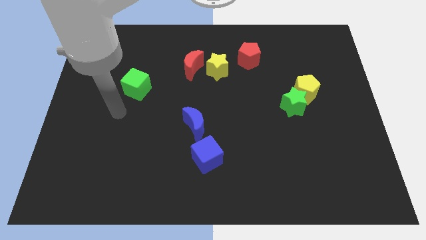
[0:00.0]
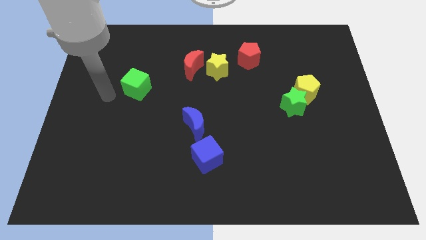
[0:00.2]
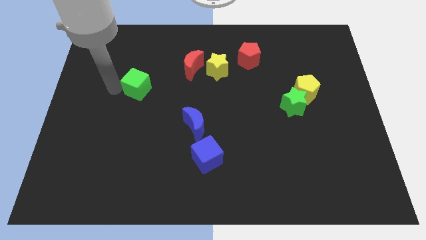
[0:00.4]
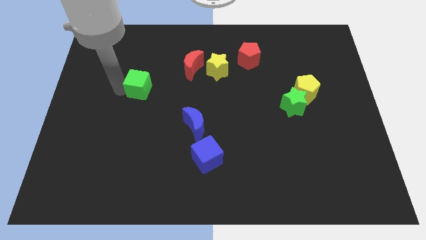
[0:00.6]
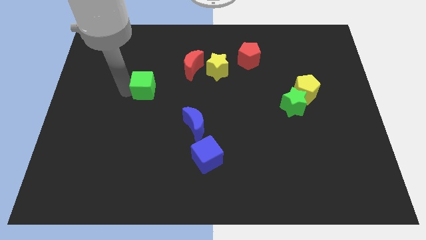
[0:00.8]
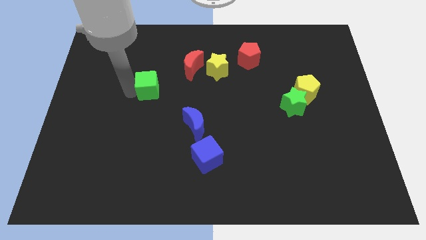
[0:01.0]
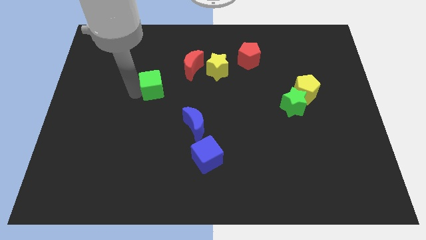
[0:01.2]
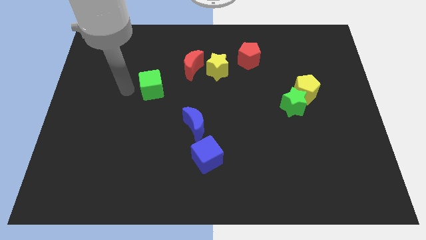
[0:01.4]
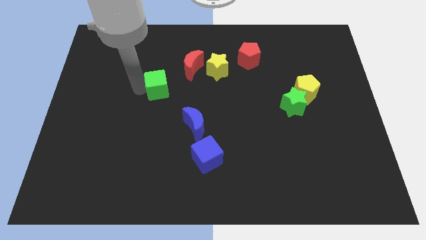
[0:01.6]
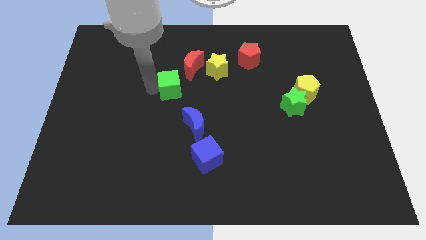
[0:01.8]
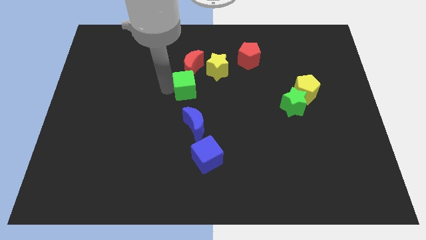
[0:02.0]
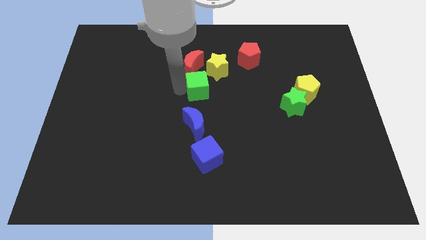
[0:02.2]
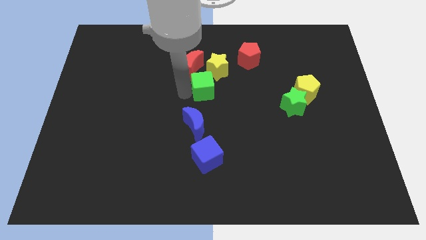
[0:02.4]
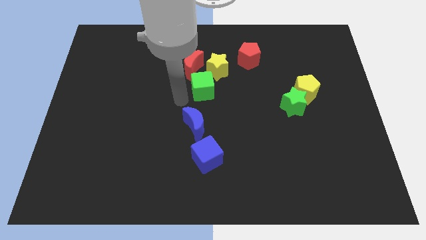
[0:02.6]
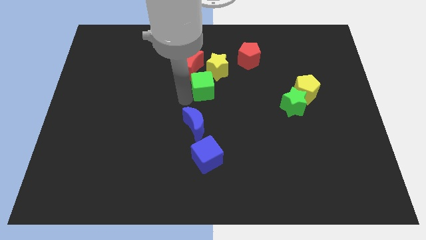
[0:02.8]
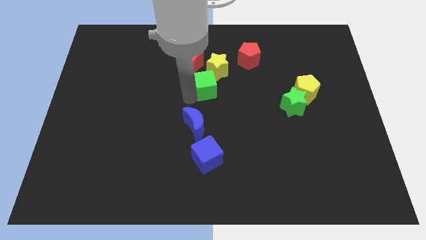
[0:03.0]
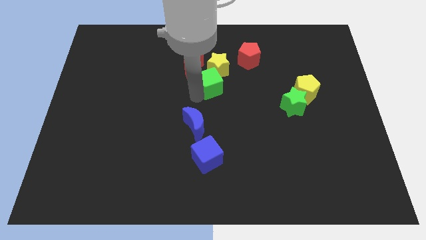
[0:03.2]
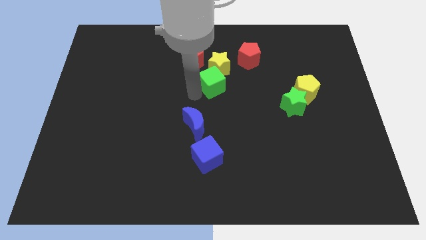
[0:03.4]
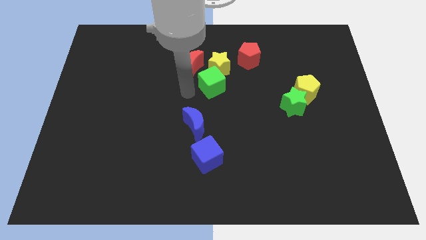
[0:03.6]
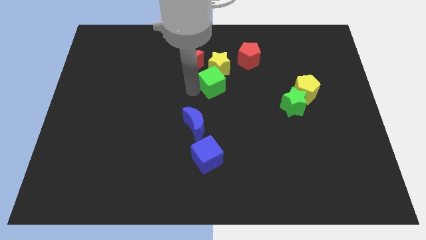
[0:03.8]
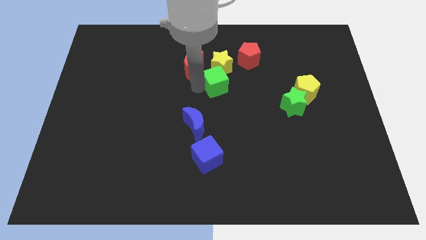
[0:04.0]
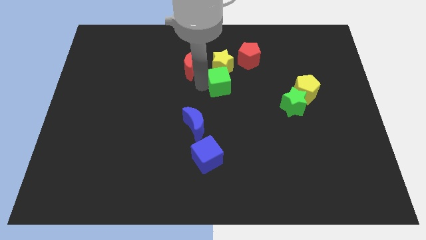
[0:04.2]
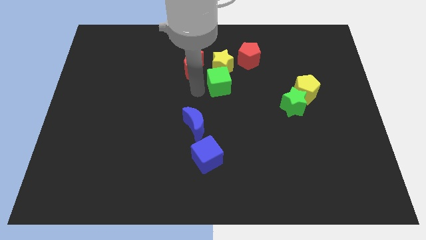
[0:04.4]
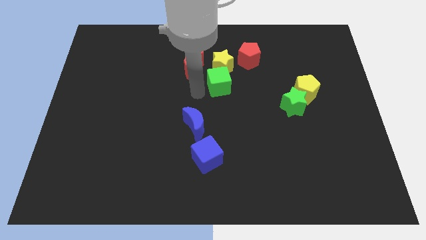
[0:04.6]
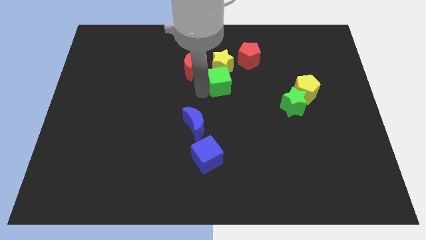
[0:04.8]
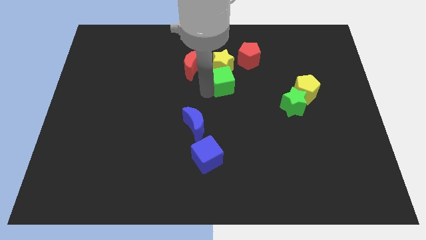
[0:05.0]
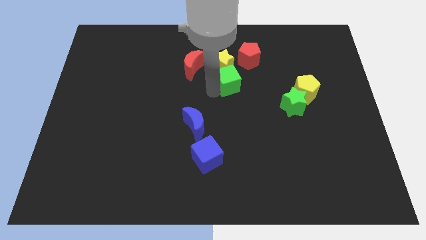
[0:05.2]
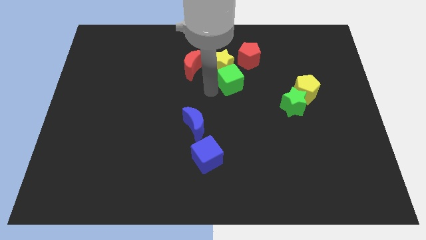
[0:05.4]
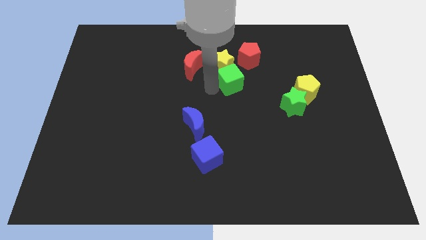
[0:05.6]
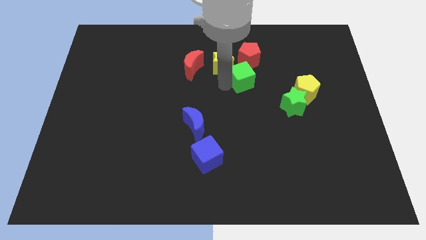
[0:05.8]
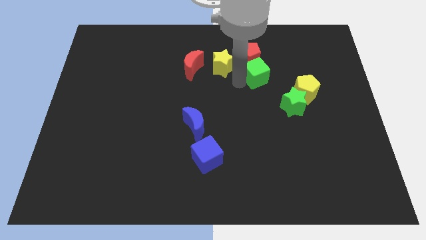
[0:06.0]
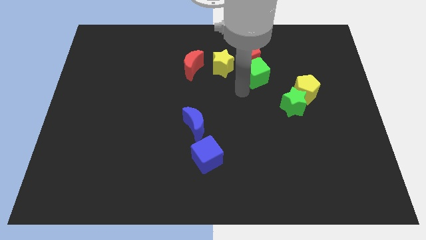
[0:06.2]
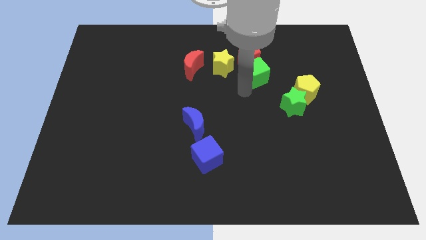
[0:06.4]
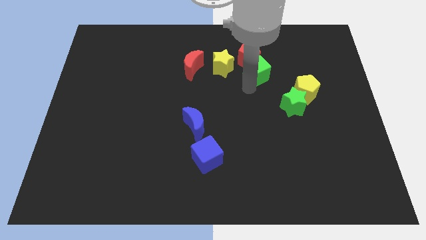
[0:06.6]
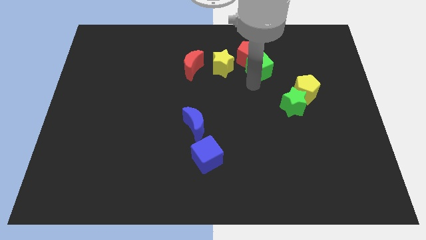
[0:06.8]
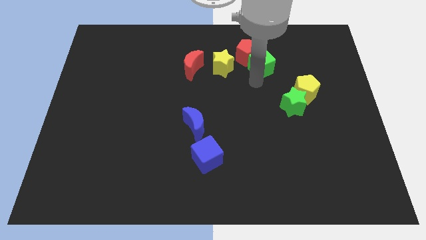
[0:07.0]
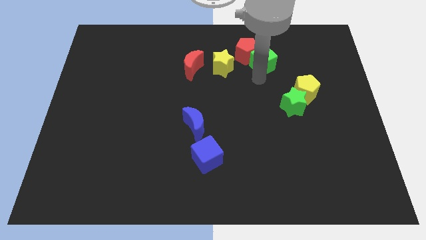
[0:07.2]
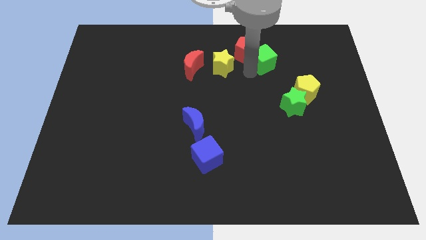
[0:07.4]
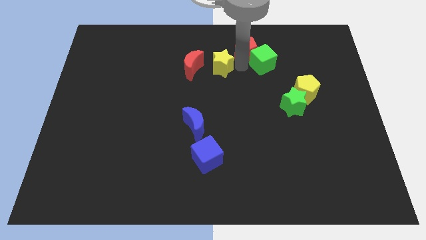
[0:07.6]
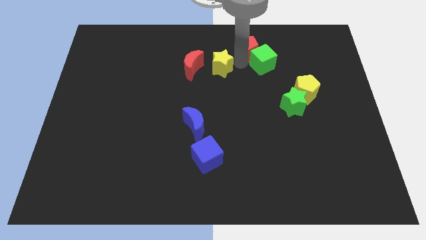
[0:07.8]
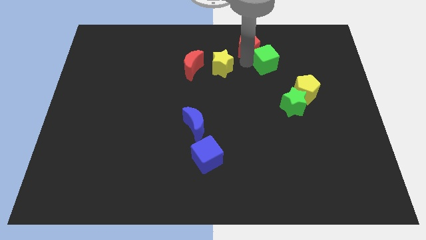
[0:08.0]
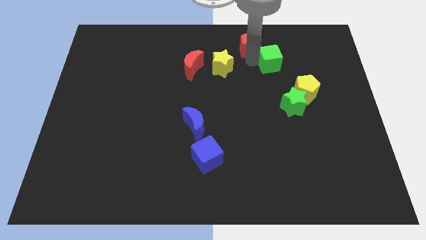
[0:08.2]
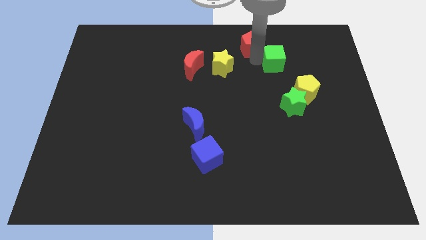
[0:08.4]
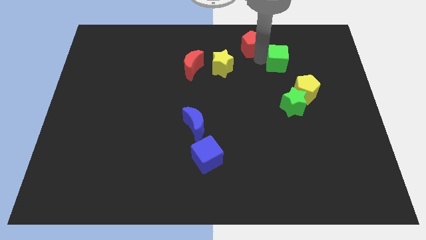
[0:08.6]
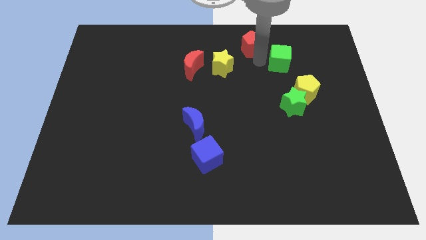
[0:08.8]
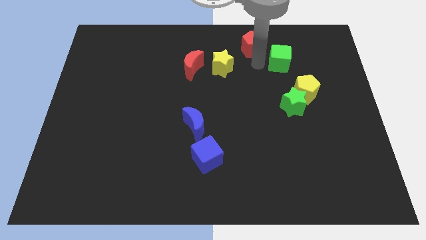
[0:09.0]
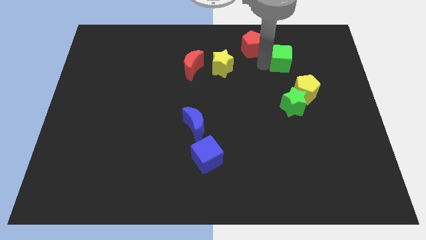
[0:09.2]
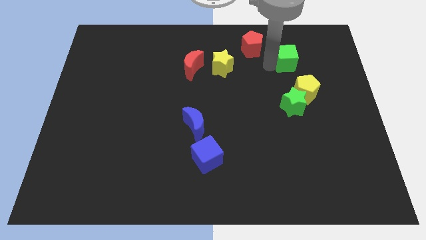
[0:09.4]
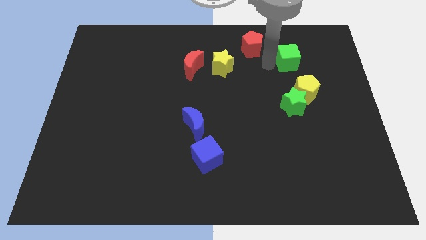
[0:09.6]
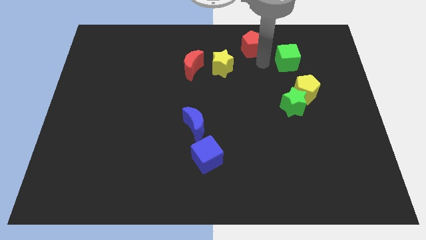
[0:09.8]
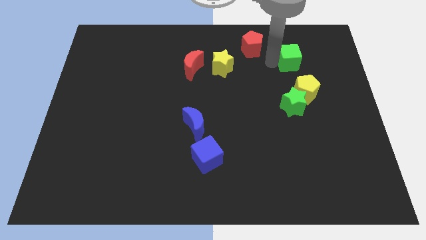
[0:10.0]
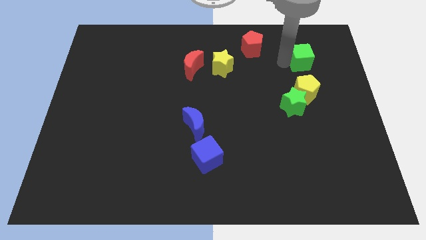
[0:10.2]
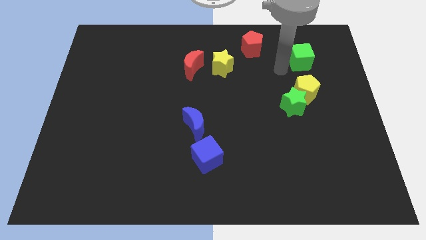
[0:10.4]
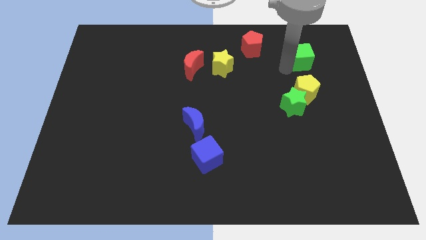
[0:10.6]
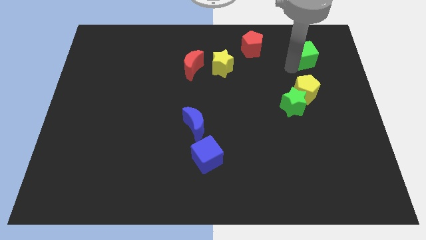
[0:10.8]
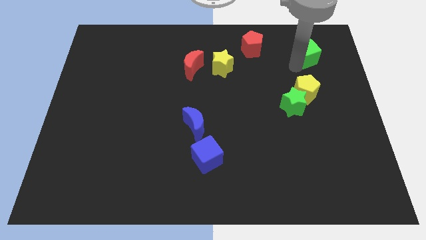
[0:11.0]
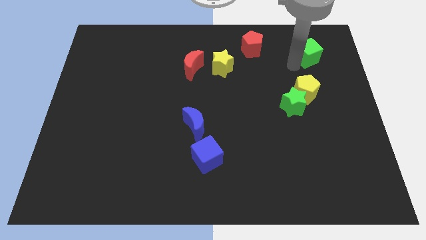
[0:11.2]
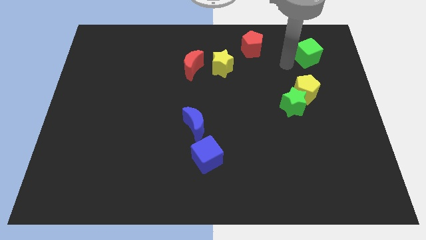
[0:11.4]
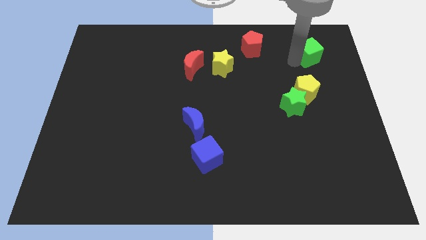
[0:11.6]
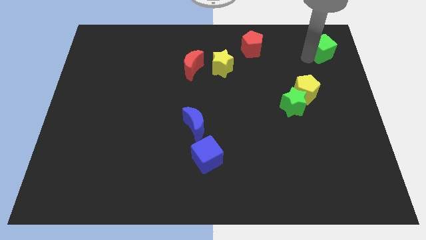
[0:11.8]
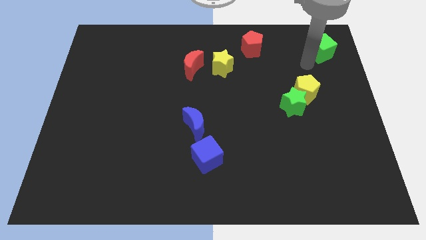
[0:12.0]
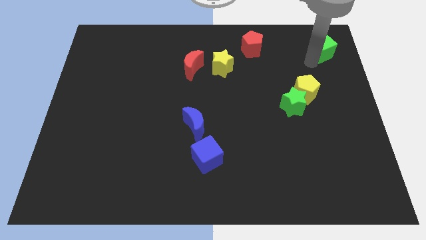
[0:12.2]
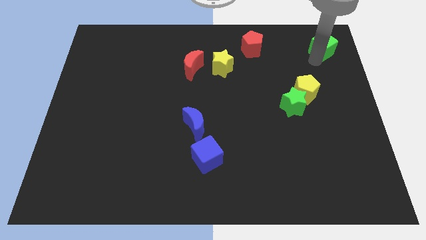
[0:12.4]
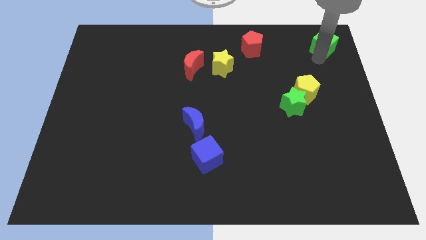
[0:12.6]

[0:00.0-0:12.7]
put the green cube to the top right of the board

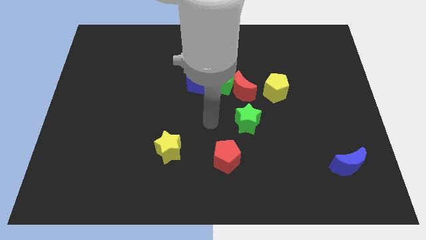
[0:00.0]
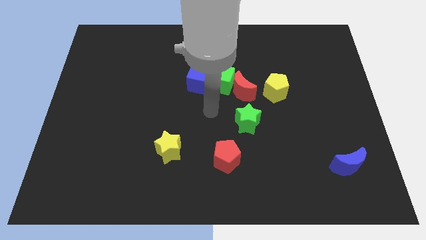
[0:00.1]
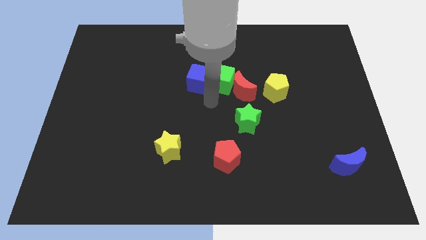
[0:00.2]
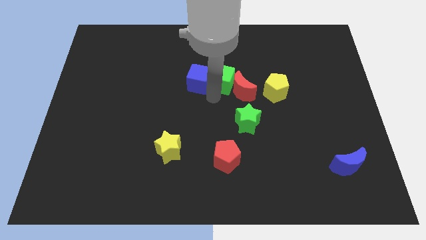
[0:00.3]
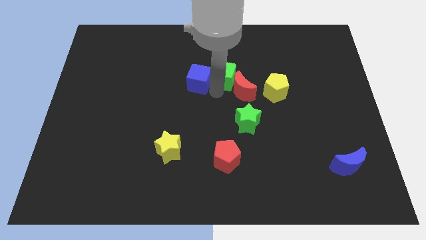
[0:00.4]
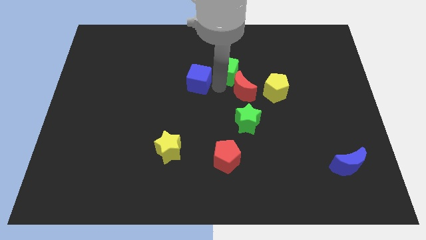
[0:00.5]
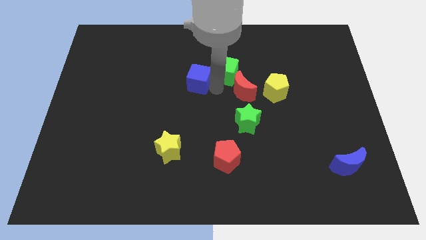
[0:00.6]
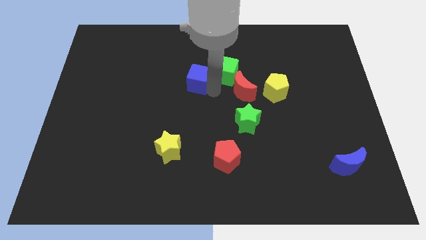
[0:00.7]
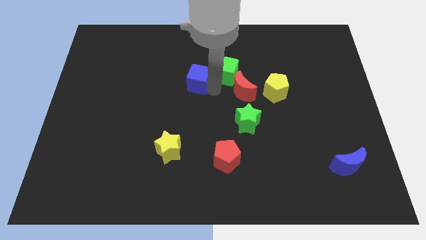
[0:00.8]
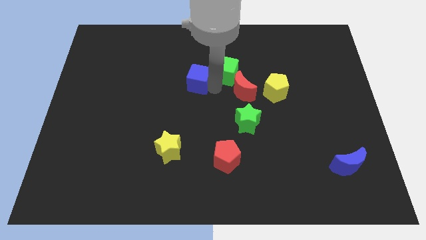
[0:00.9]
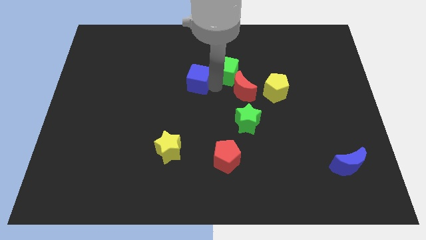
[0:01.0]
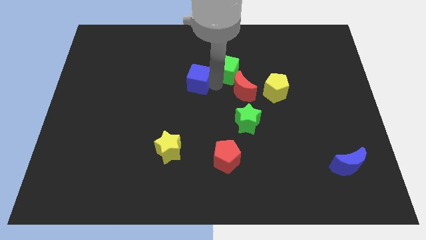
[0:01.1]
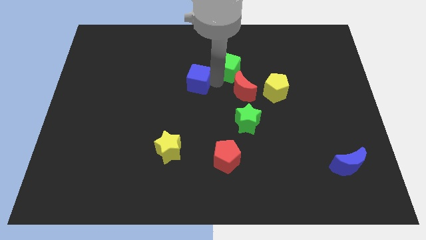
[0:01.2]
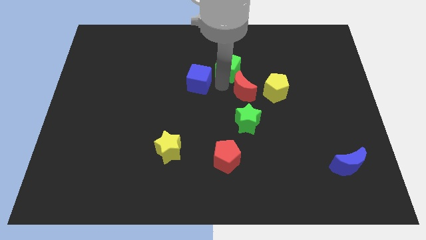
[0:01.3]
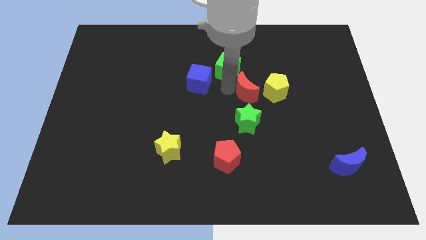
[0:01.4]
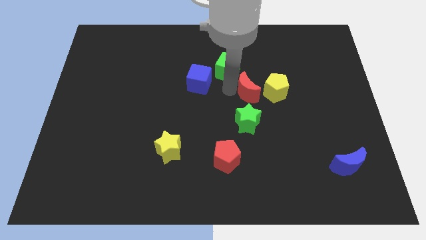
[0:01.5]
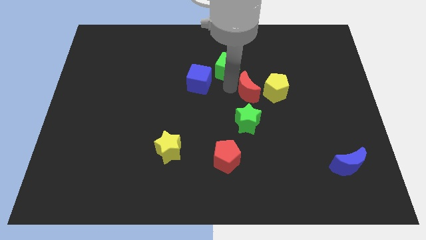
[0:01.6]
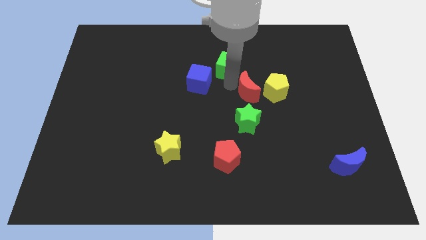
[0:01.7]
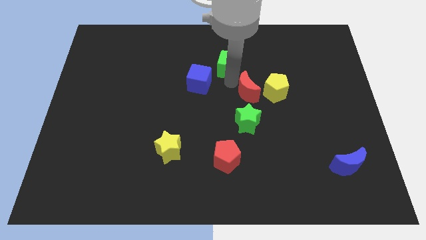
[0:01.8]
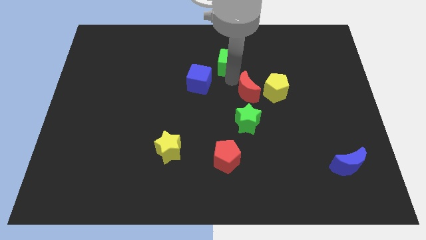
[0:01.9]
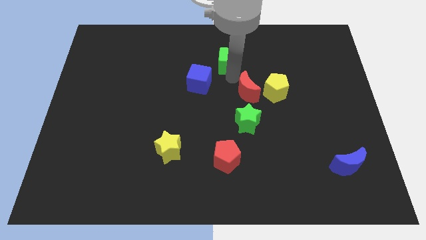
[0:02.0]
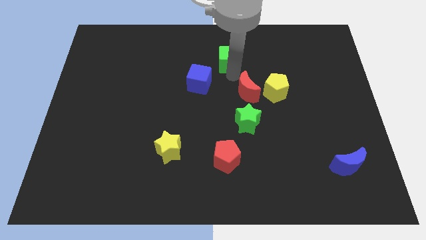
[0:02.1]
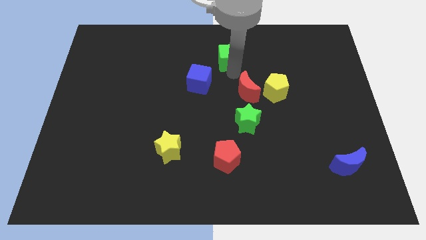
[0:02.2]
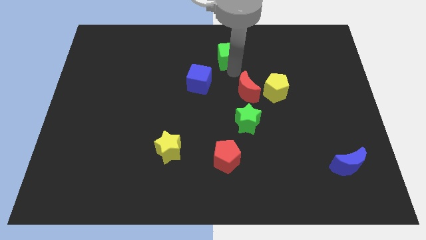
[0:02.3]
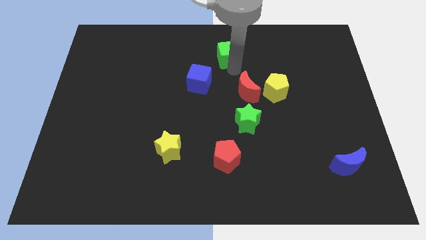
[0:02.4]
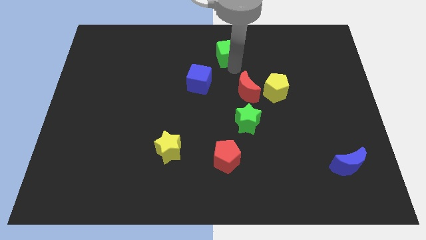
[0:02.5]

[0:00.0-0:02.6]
slide the green cube to the towards your base
